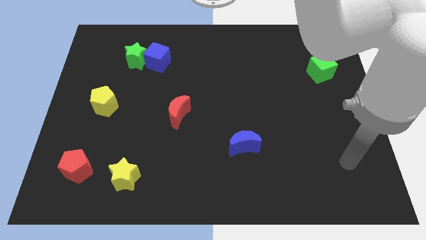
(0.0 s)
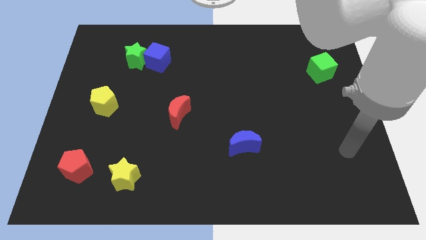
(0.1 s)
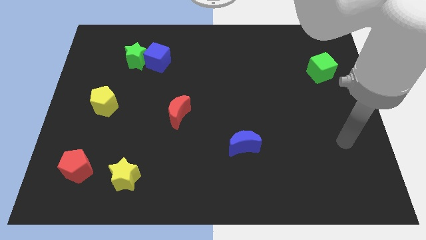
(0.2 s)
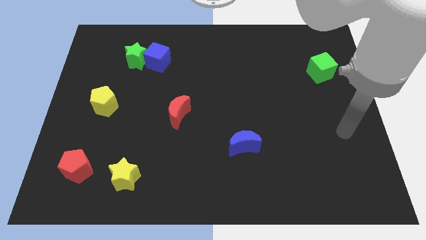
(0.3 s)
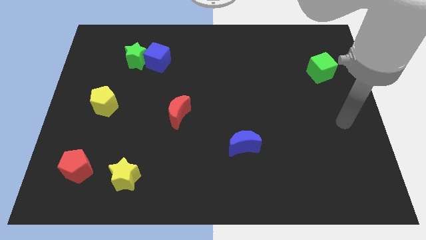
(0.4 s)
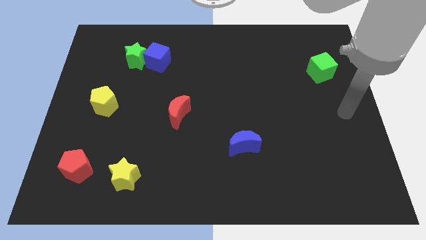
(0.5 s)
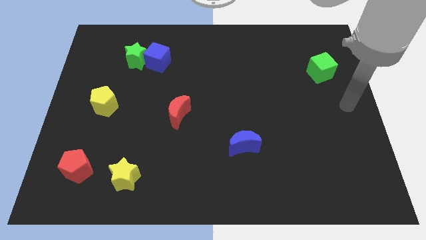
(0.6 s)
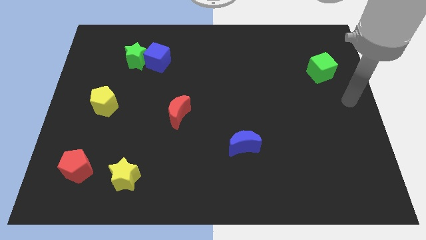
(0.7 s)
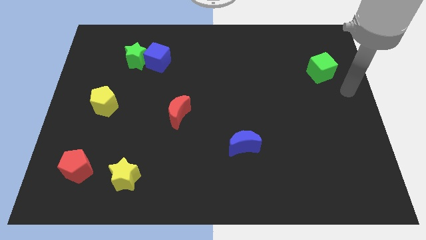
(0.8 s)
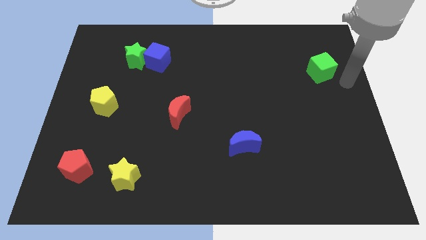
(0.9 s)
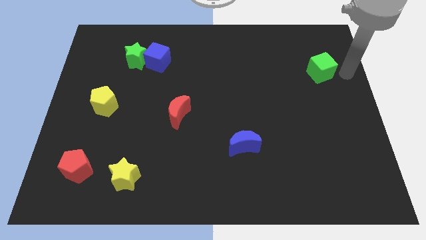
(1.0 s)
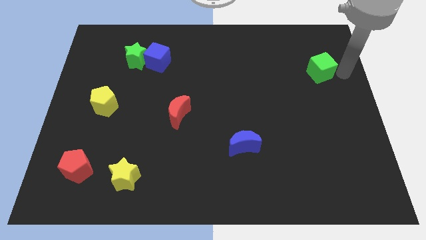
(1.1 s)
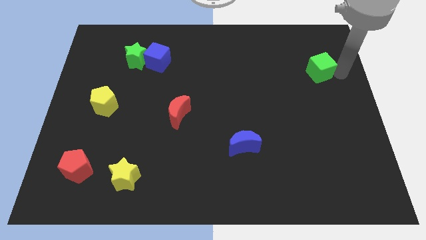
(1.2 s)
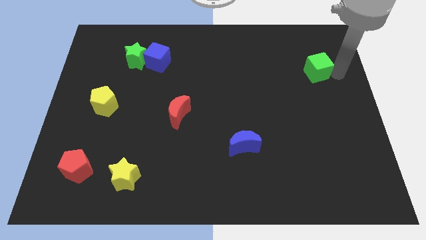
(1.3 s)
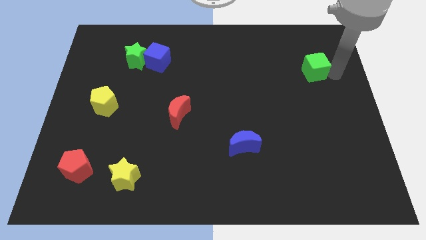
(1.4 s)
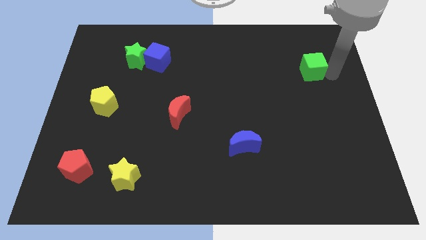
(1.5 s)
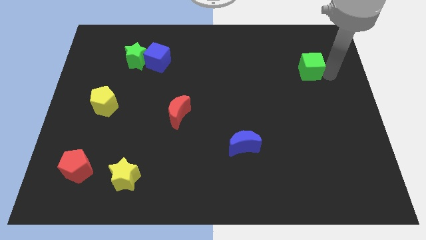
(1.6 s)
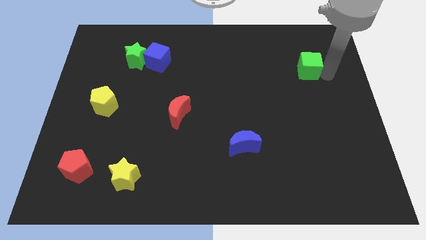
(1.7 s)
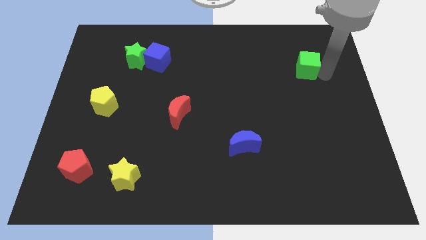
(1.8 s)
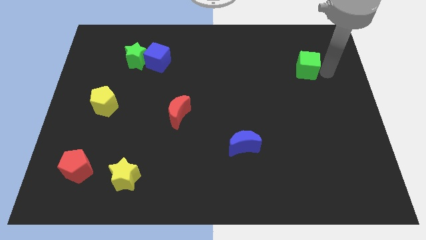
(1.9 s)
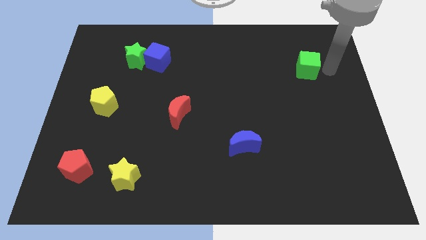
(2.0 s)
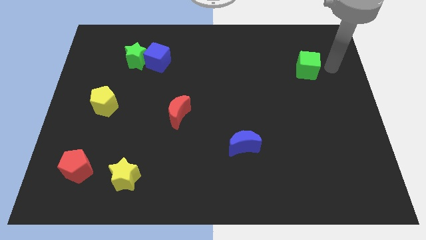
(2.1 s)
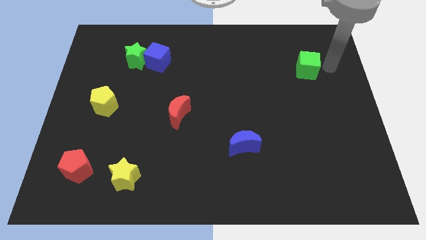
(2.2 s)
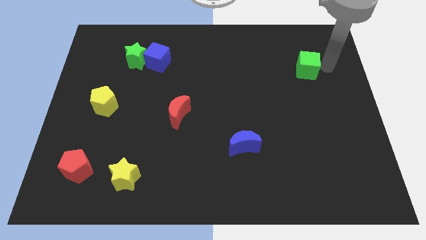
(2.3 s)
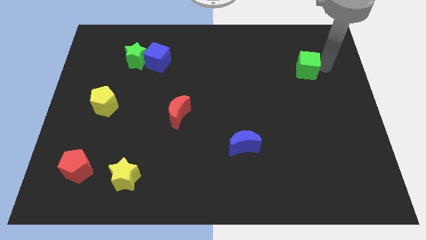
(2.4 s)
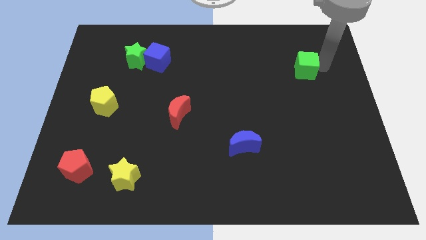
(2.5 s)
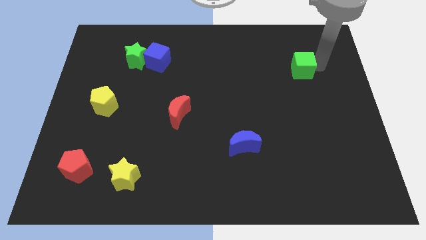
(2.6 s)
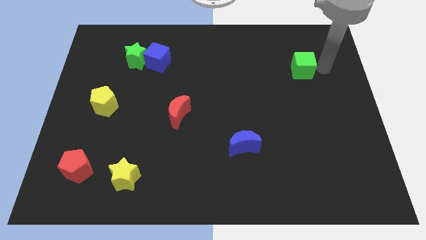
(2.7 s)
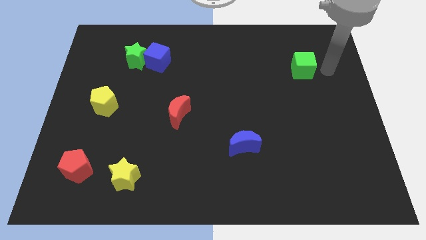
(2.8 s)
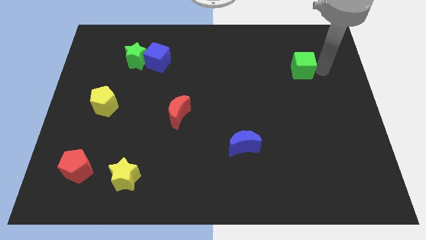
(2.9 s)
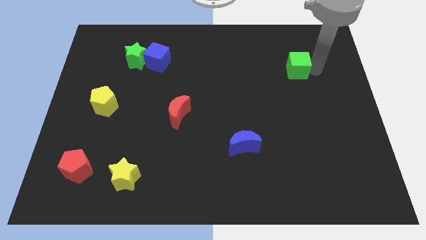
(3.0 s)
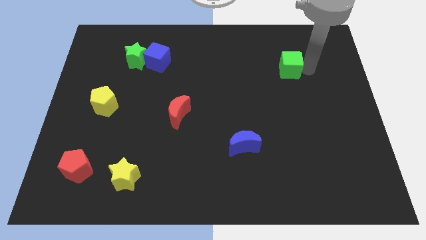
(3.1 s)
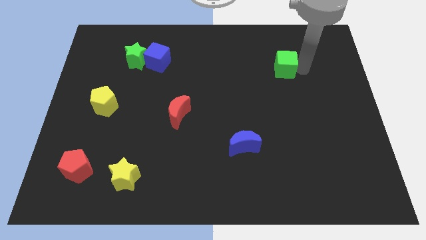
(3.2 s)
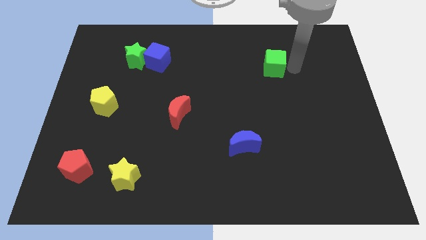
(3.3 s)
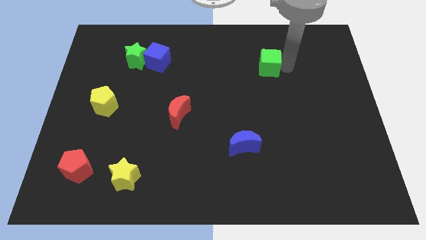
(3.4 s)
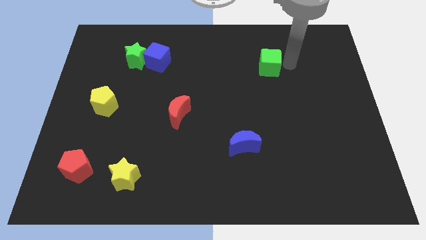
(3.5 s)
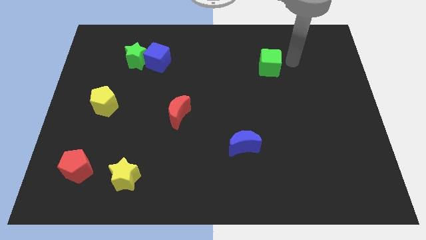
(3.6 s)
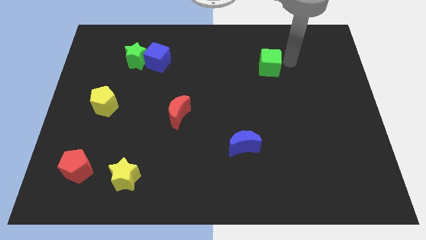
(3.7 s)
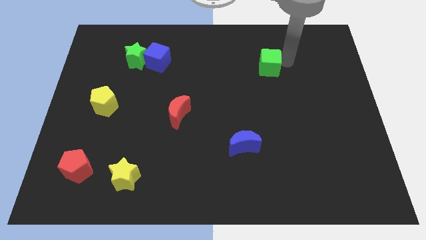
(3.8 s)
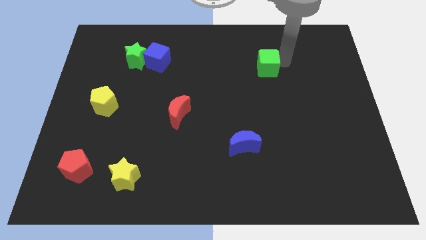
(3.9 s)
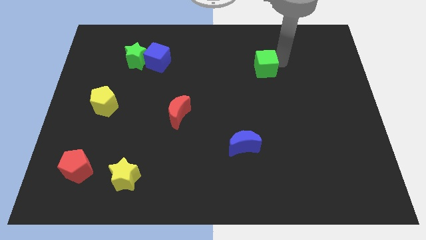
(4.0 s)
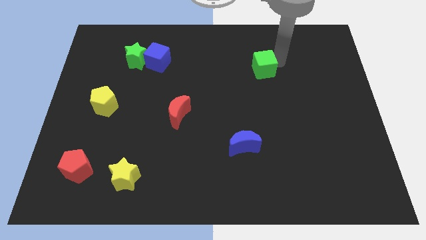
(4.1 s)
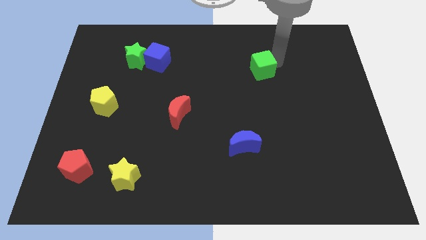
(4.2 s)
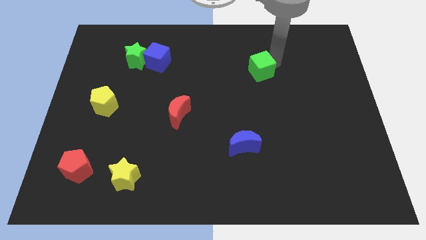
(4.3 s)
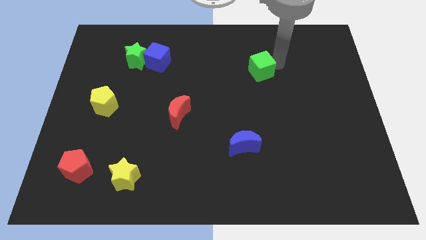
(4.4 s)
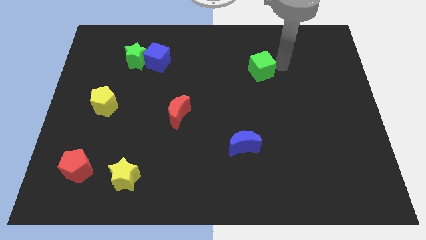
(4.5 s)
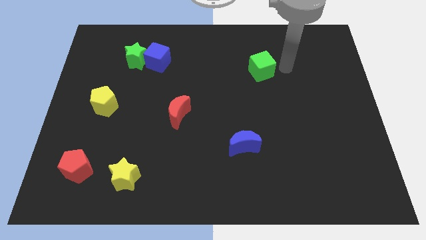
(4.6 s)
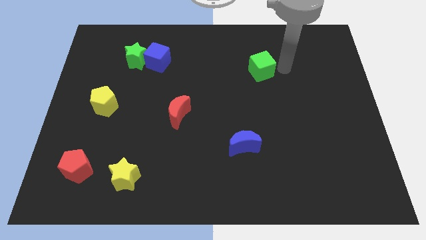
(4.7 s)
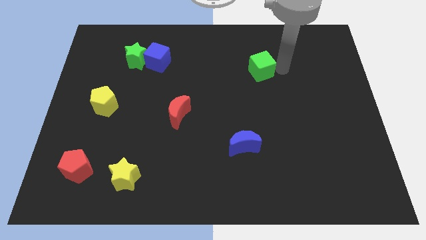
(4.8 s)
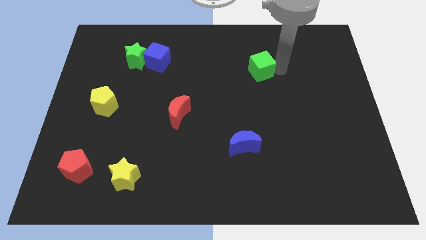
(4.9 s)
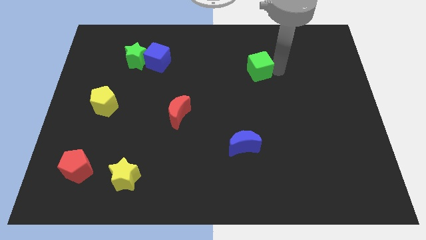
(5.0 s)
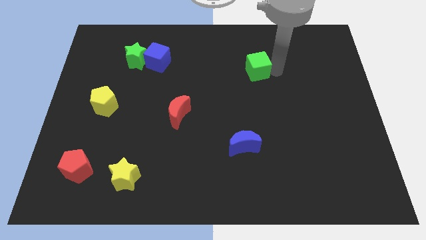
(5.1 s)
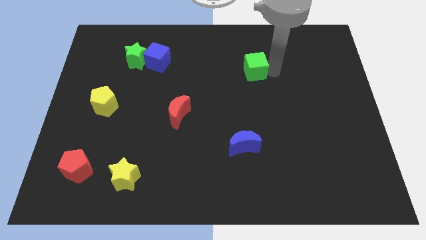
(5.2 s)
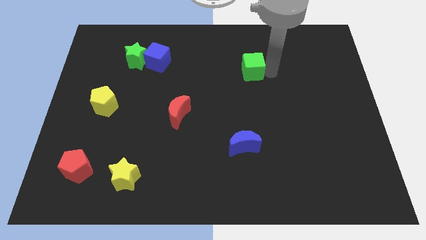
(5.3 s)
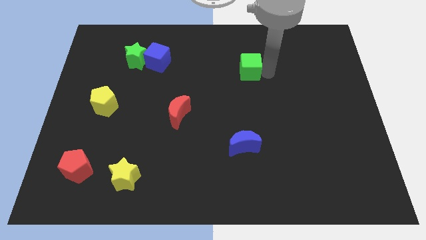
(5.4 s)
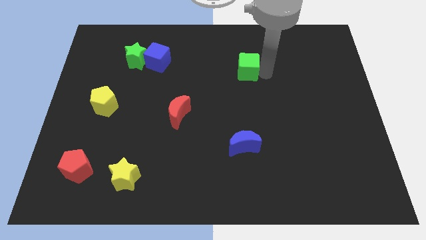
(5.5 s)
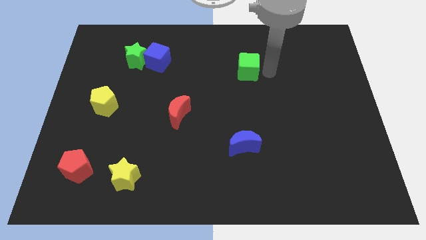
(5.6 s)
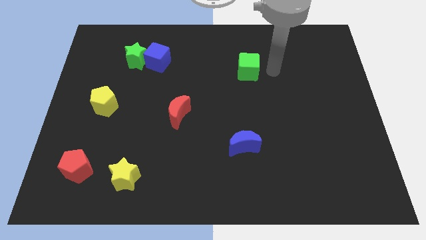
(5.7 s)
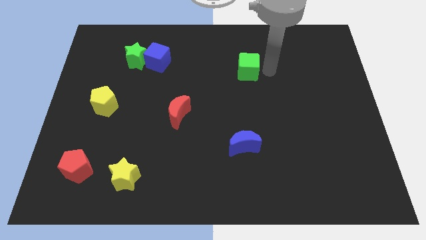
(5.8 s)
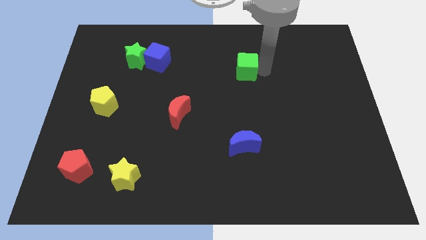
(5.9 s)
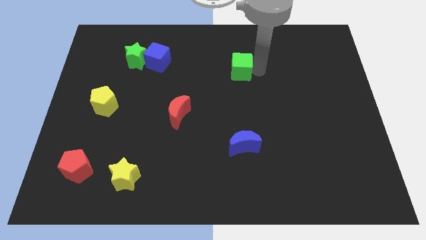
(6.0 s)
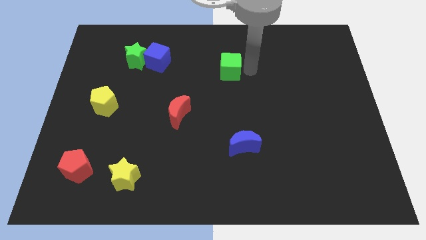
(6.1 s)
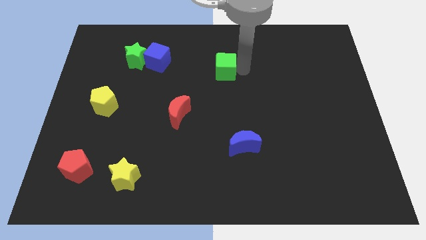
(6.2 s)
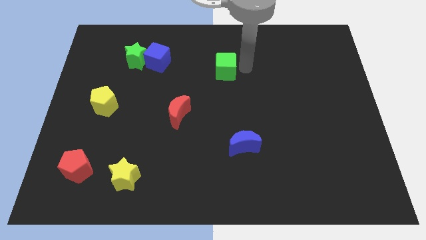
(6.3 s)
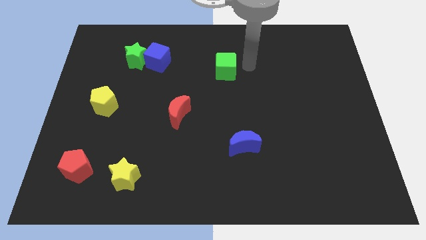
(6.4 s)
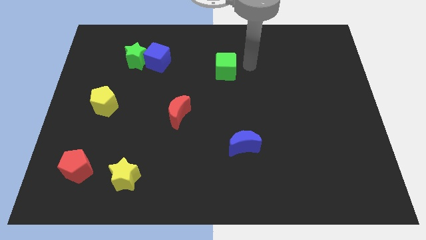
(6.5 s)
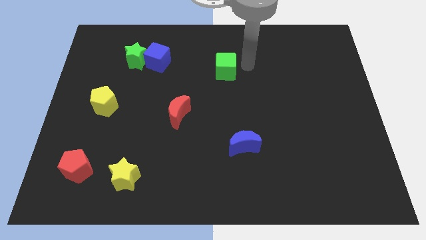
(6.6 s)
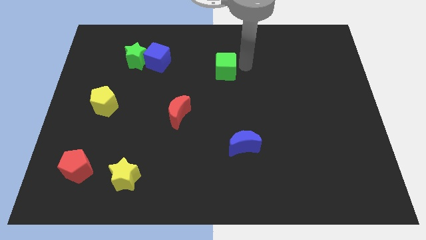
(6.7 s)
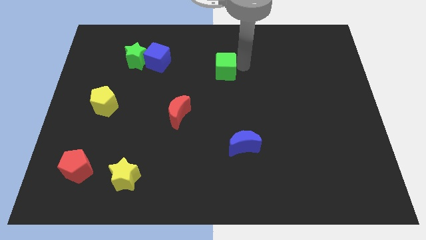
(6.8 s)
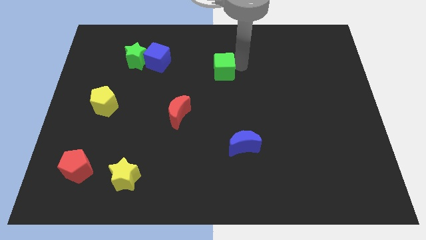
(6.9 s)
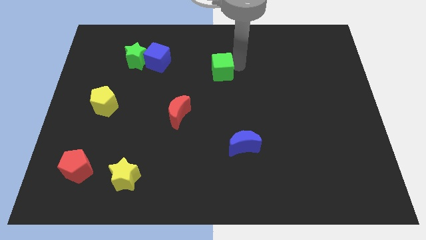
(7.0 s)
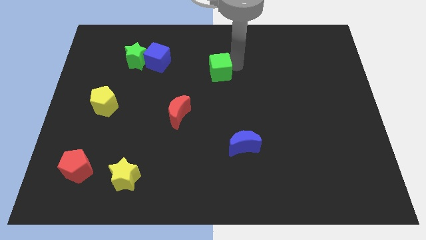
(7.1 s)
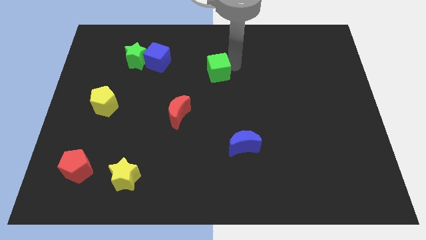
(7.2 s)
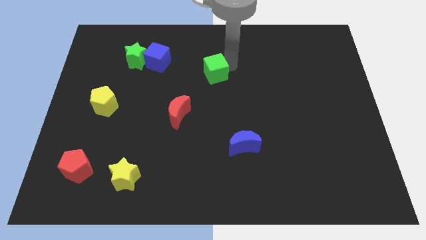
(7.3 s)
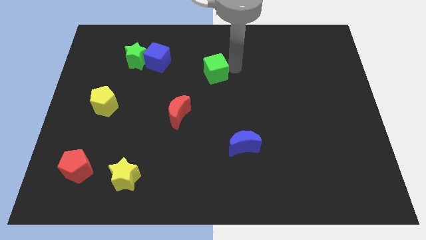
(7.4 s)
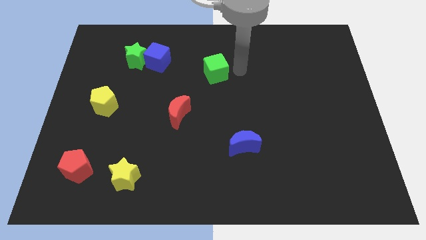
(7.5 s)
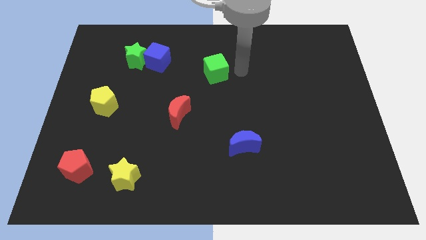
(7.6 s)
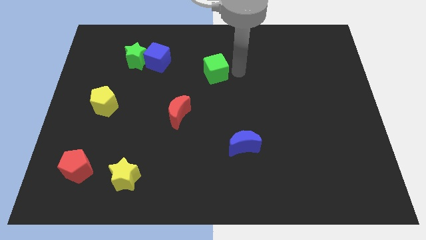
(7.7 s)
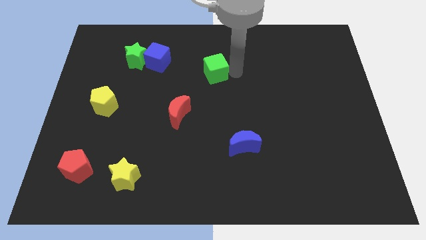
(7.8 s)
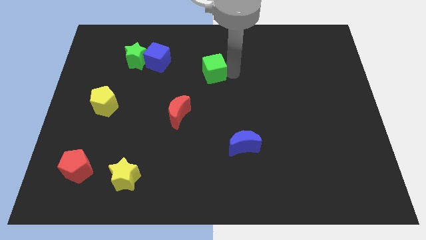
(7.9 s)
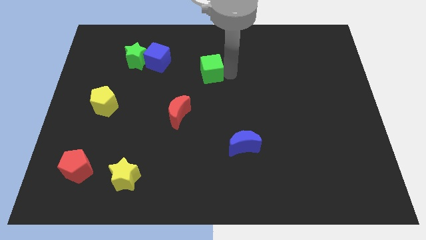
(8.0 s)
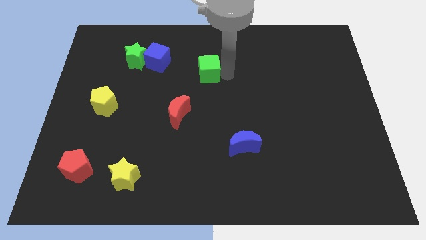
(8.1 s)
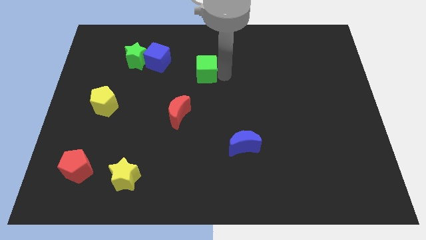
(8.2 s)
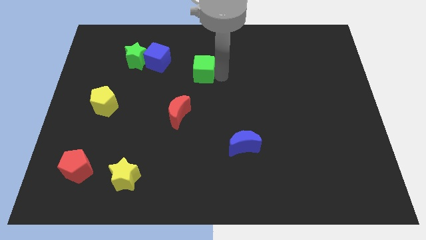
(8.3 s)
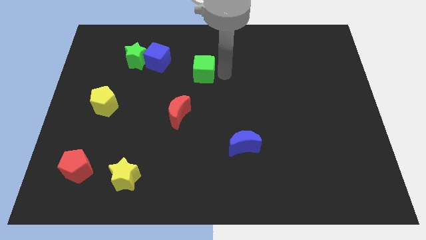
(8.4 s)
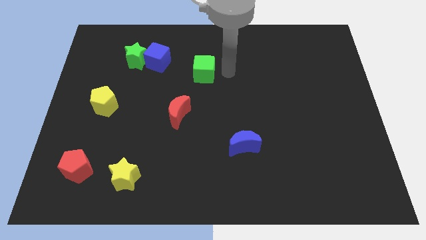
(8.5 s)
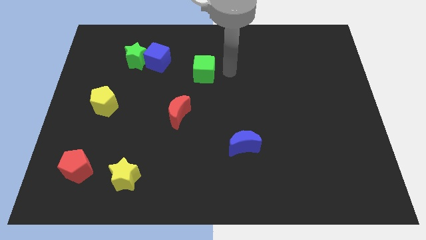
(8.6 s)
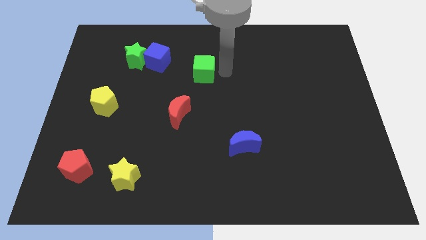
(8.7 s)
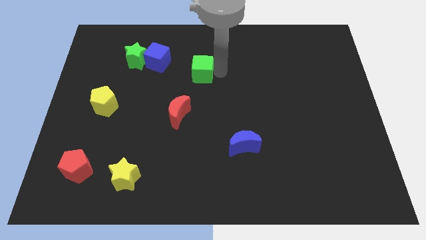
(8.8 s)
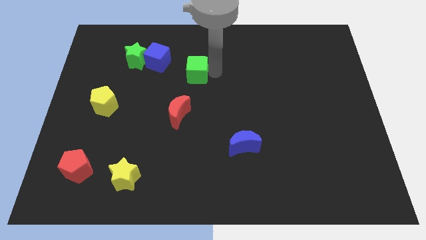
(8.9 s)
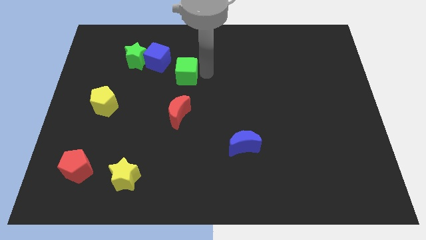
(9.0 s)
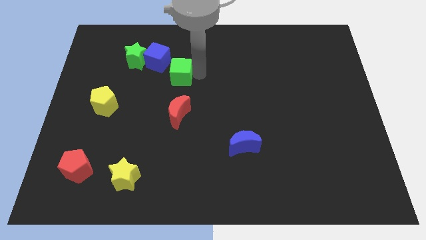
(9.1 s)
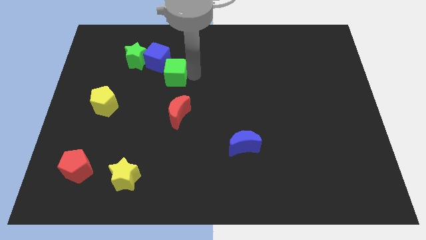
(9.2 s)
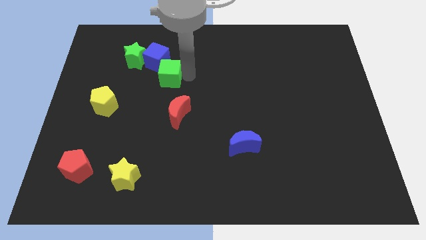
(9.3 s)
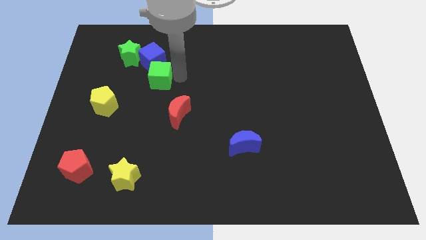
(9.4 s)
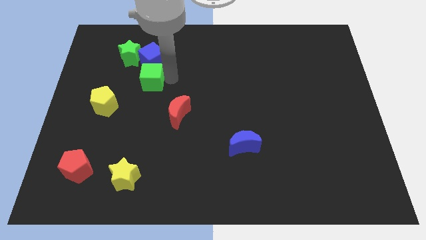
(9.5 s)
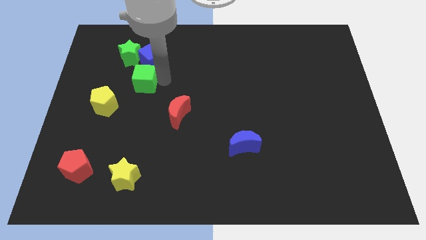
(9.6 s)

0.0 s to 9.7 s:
move the green cube diagonally down and to the left of the blue cube
